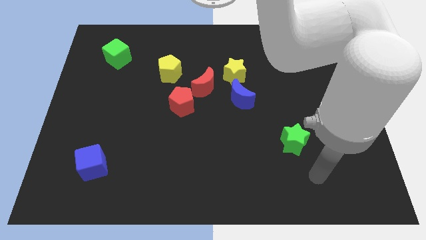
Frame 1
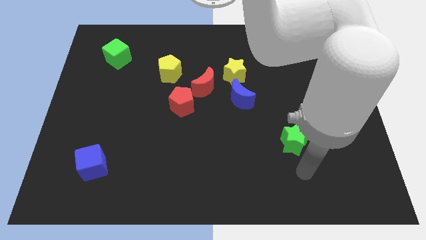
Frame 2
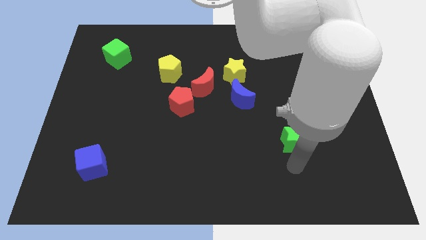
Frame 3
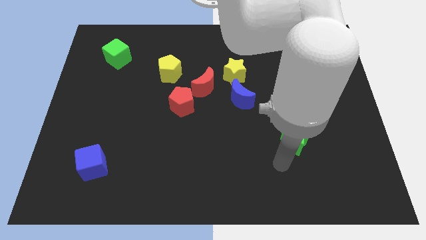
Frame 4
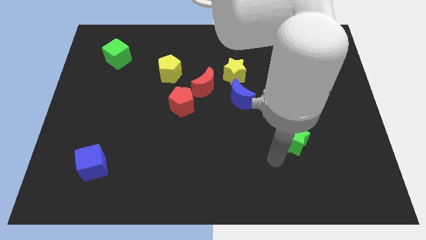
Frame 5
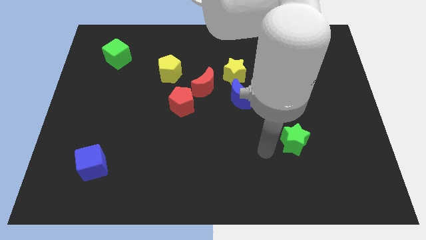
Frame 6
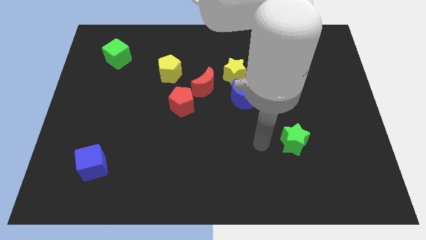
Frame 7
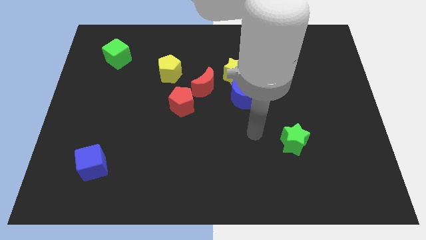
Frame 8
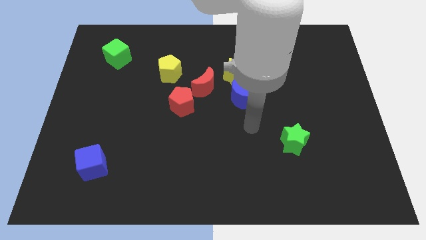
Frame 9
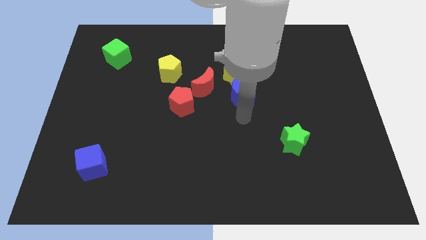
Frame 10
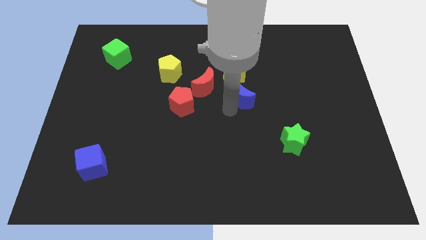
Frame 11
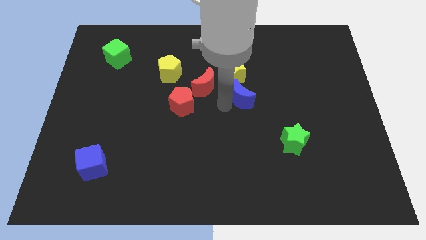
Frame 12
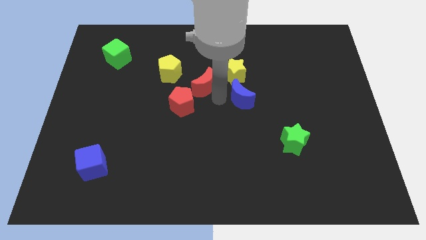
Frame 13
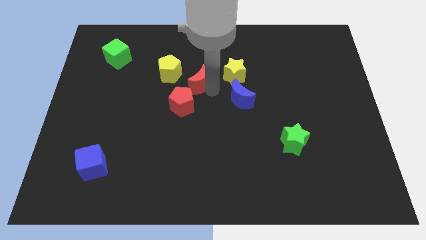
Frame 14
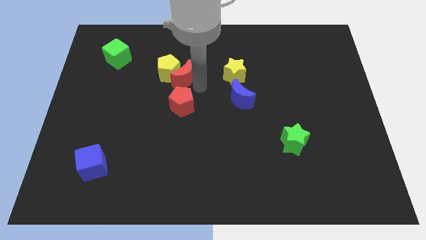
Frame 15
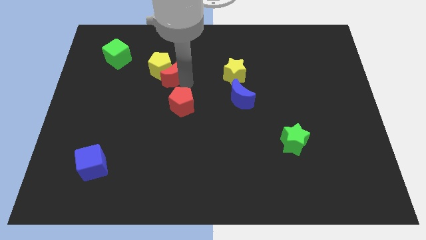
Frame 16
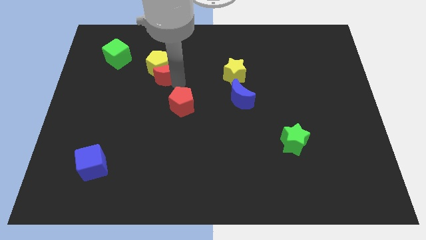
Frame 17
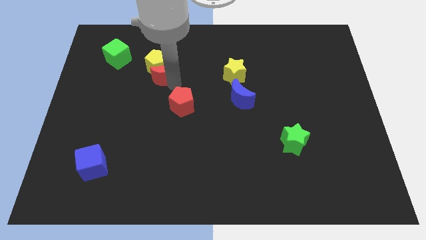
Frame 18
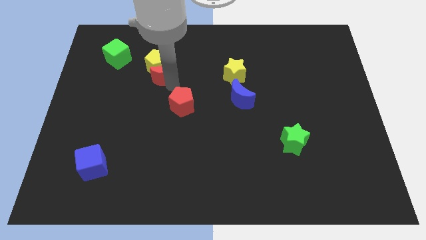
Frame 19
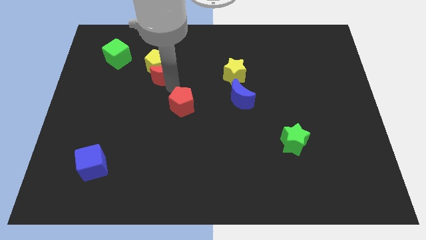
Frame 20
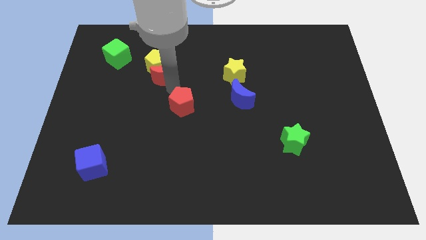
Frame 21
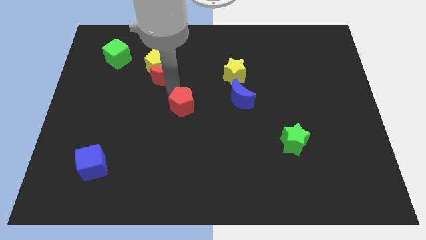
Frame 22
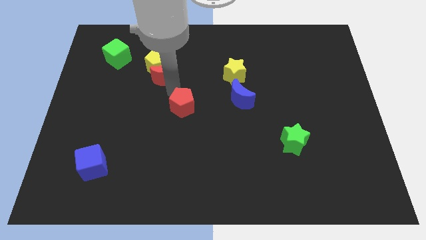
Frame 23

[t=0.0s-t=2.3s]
pull the red pentagon apart from the red moon

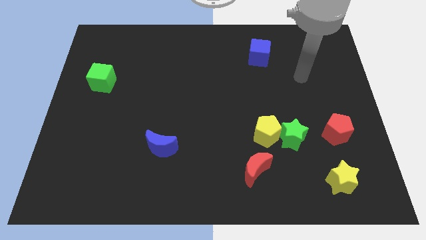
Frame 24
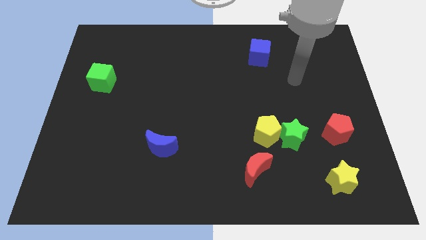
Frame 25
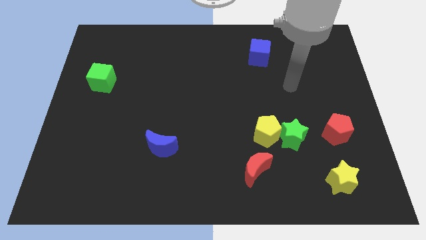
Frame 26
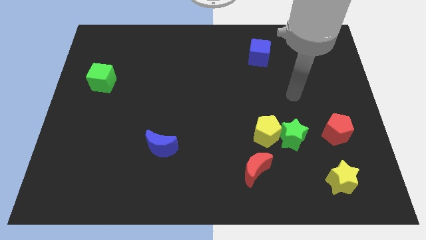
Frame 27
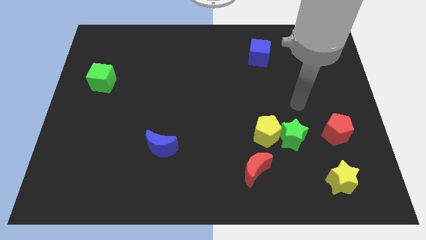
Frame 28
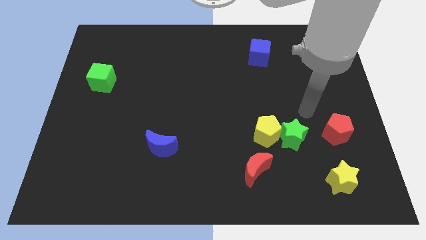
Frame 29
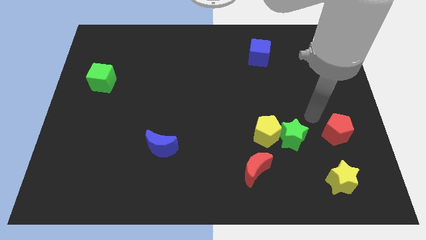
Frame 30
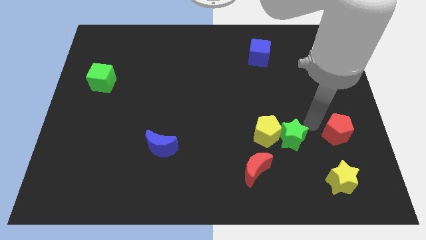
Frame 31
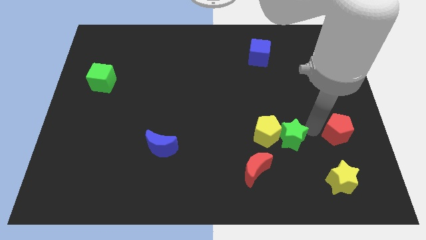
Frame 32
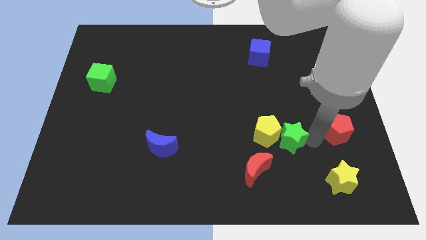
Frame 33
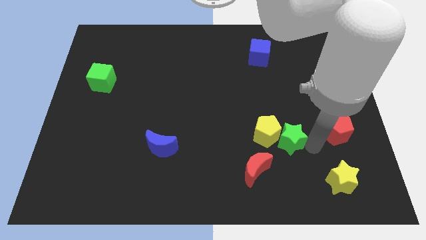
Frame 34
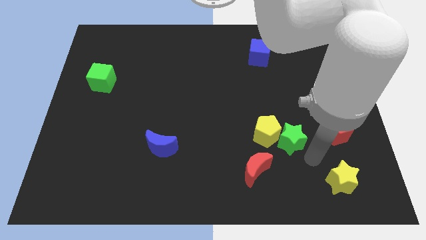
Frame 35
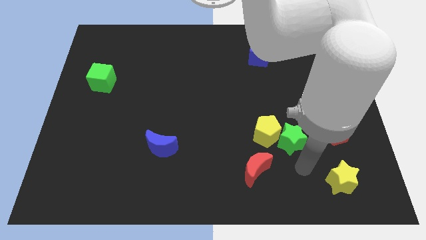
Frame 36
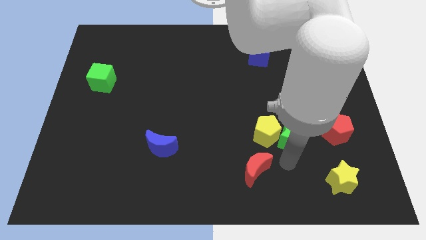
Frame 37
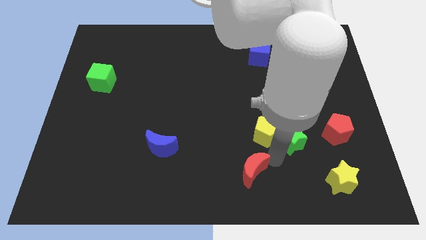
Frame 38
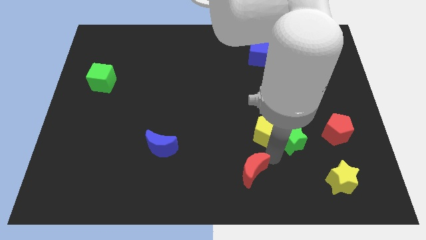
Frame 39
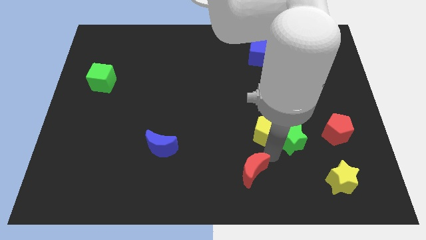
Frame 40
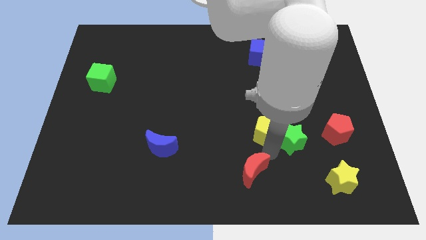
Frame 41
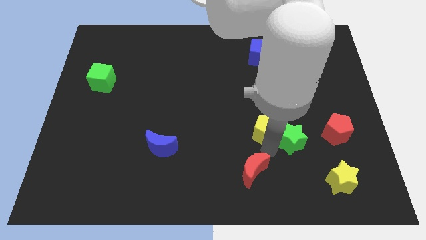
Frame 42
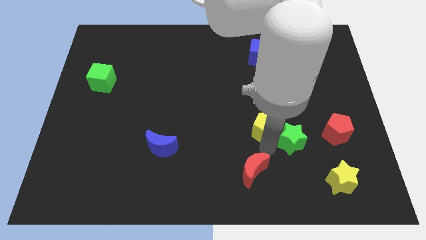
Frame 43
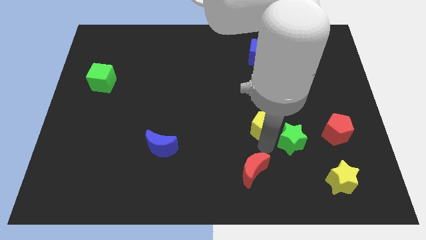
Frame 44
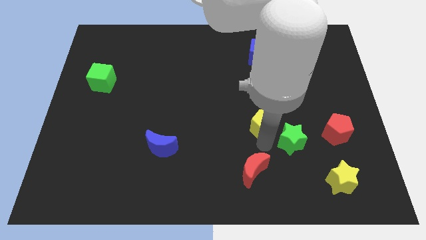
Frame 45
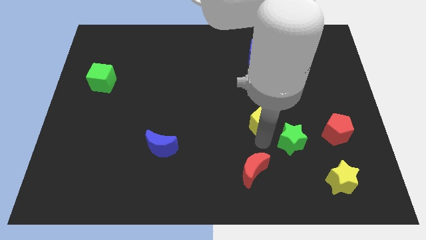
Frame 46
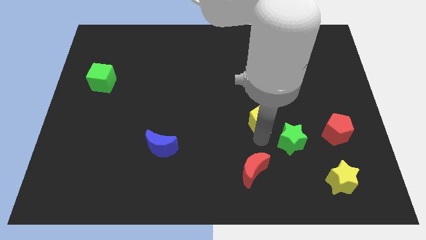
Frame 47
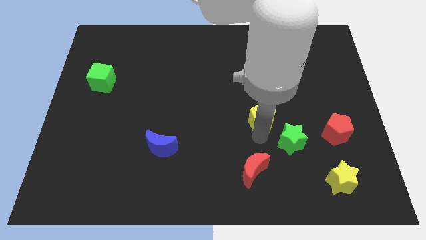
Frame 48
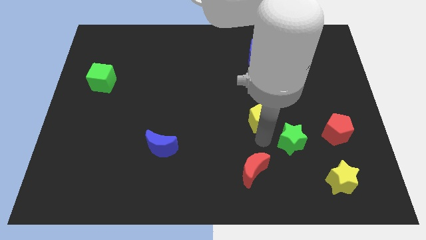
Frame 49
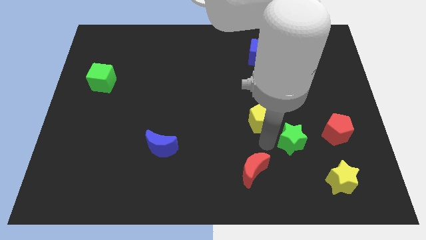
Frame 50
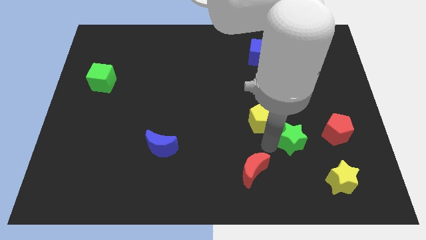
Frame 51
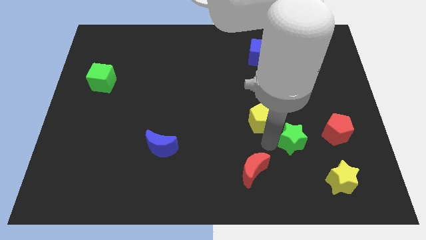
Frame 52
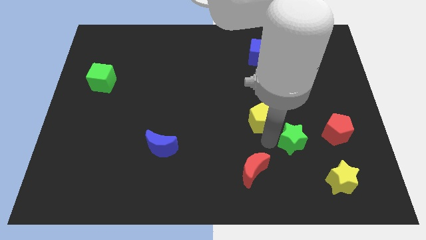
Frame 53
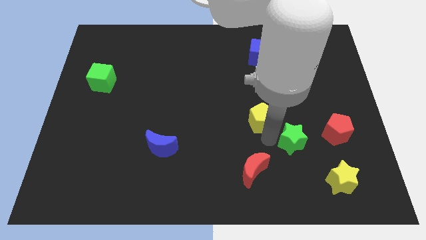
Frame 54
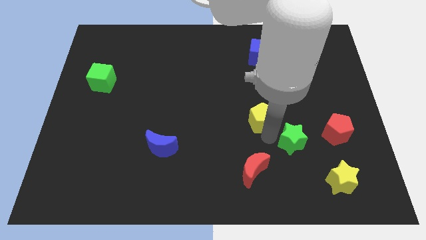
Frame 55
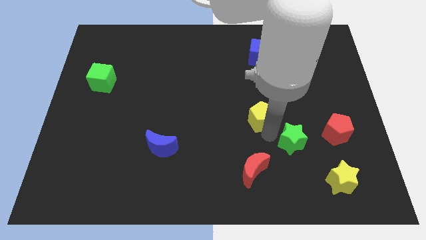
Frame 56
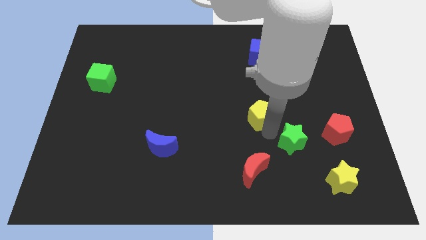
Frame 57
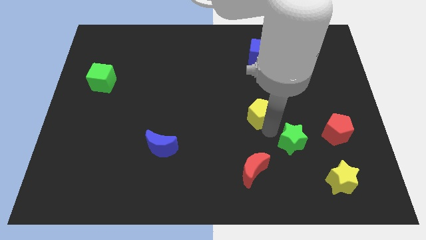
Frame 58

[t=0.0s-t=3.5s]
move the yellow pentagon away from the green star and red moon

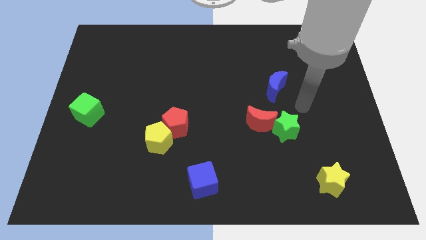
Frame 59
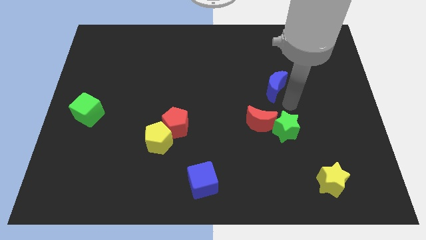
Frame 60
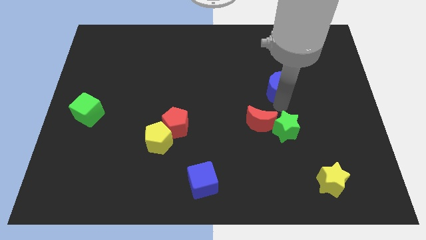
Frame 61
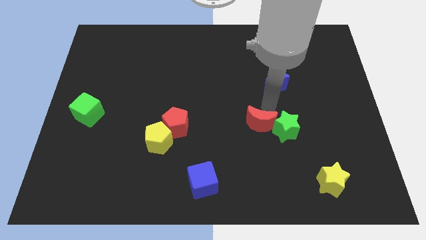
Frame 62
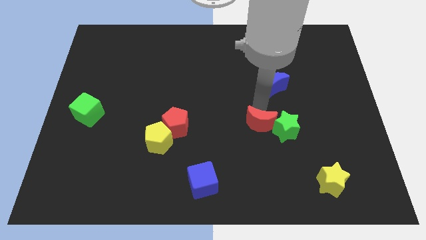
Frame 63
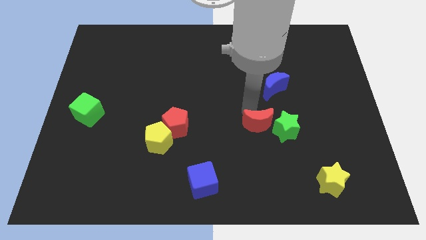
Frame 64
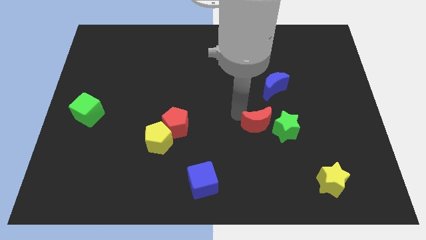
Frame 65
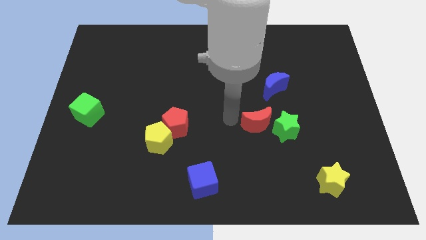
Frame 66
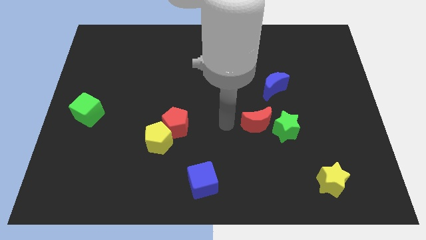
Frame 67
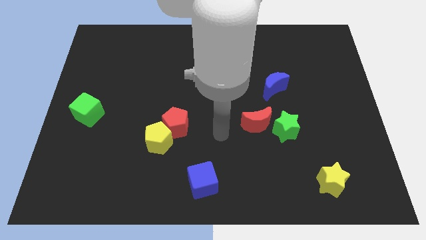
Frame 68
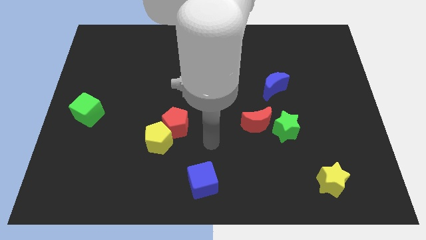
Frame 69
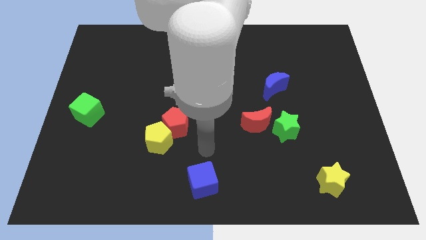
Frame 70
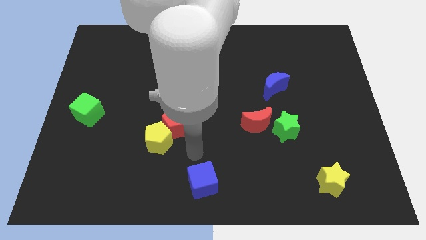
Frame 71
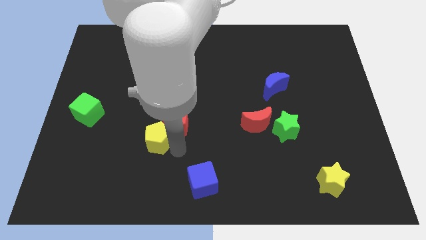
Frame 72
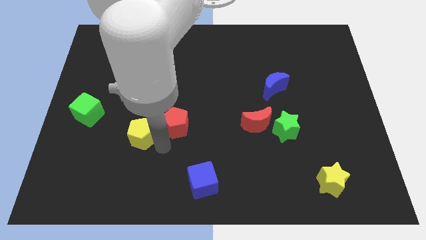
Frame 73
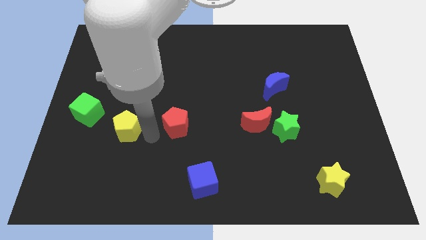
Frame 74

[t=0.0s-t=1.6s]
move the red pentagon away from the yellow pentagon

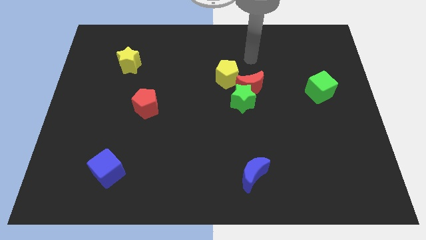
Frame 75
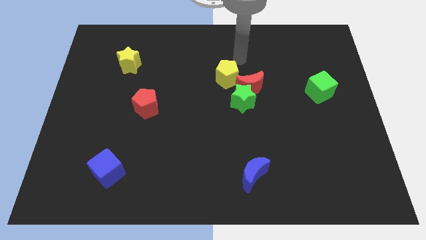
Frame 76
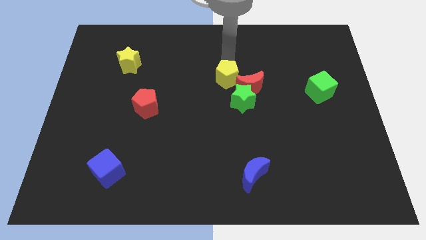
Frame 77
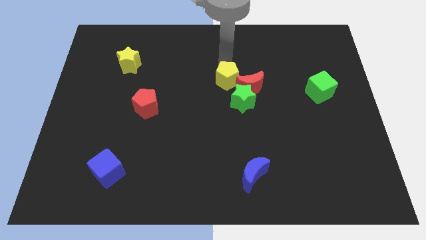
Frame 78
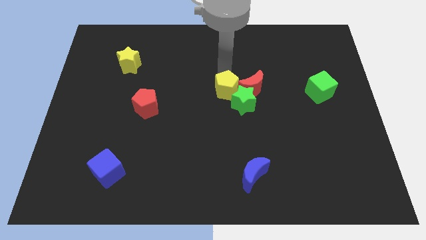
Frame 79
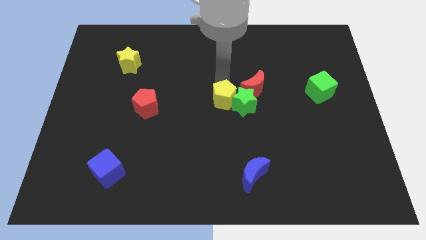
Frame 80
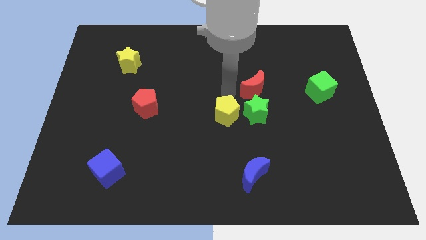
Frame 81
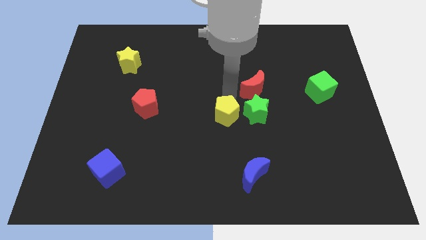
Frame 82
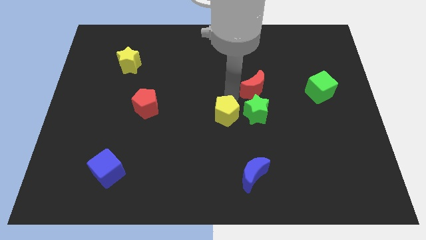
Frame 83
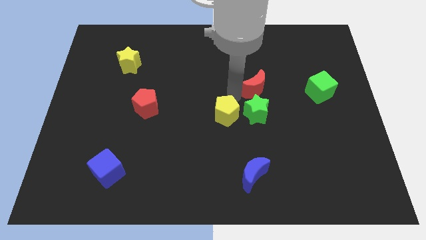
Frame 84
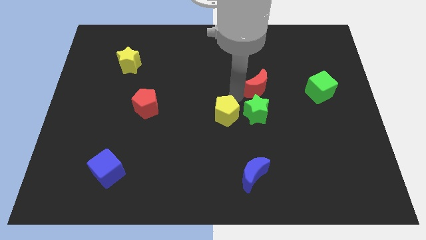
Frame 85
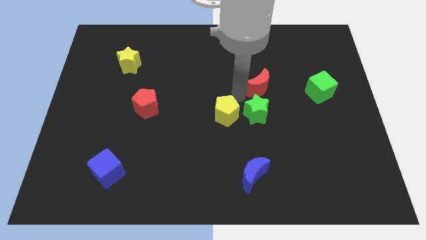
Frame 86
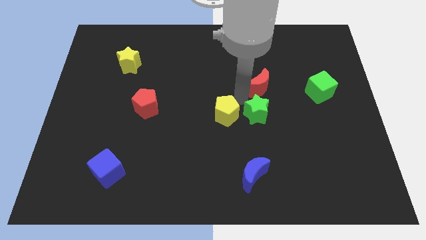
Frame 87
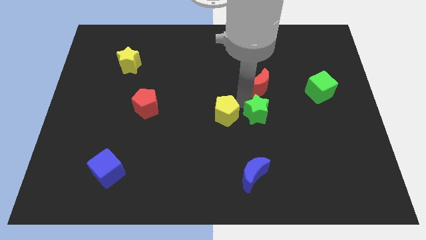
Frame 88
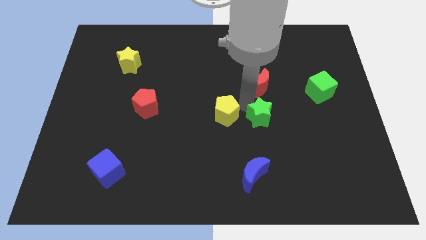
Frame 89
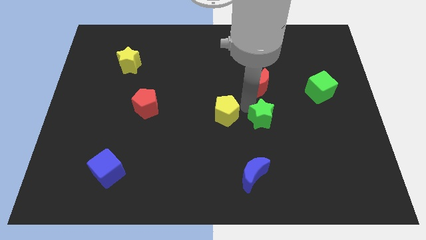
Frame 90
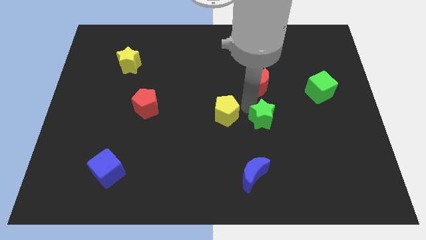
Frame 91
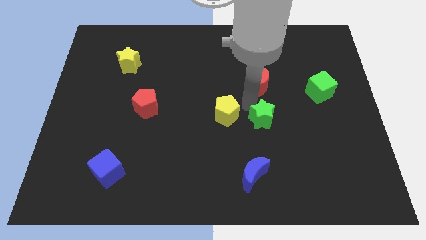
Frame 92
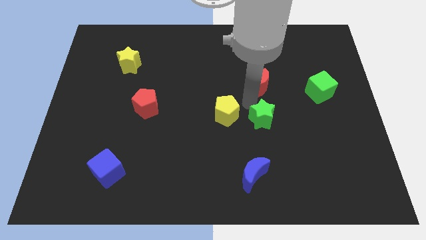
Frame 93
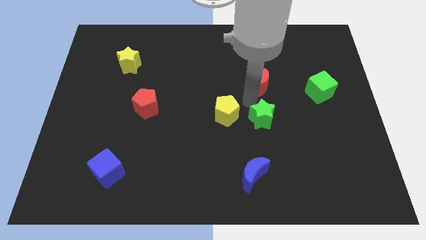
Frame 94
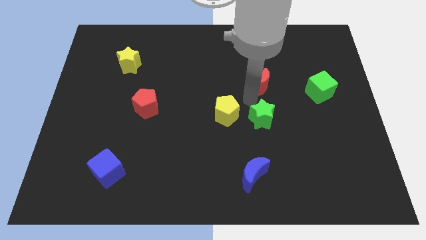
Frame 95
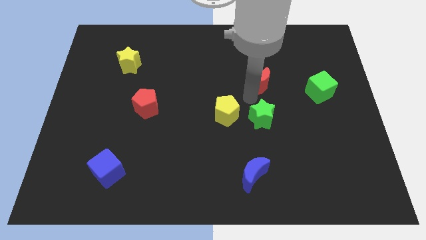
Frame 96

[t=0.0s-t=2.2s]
move the red moon away from the green star and yellow pentagon
